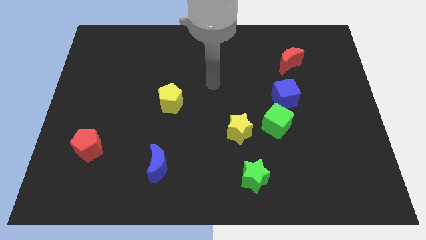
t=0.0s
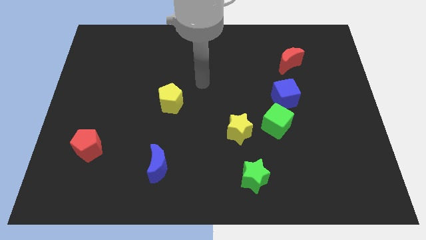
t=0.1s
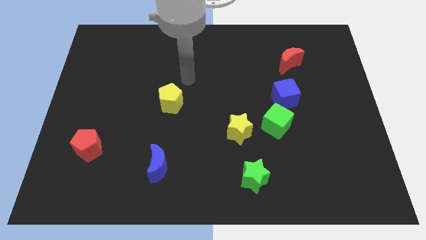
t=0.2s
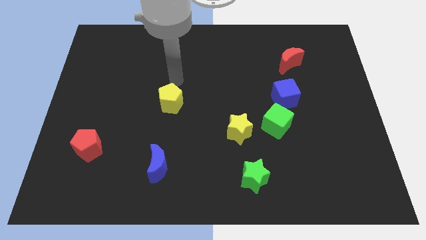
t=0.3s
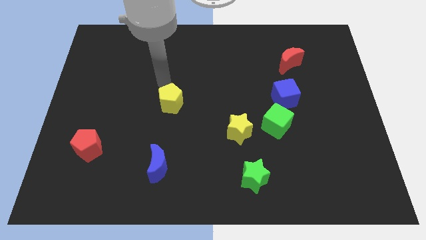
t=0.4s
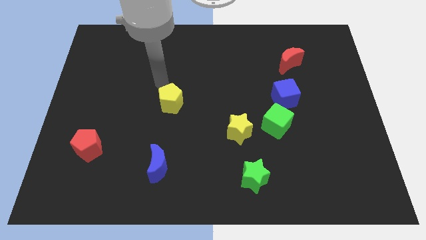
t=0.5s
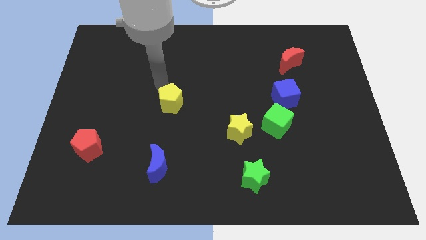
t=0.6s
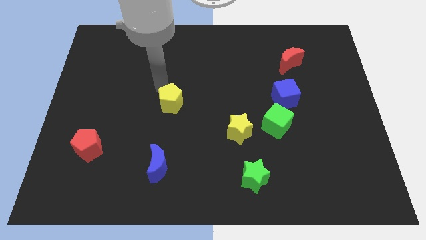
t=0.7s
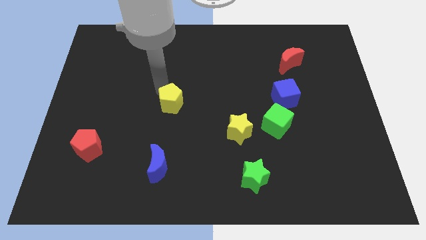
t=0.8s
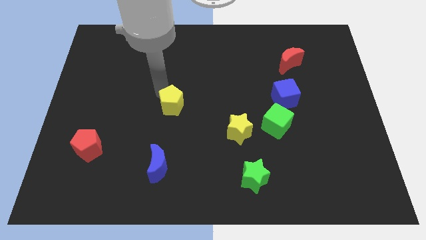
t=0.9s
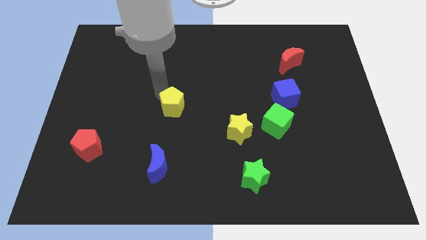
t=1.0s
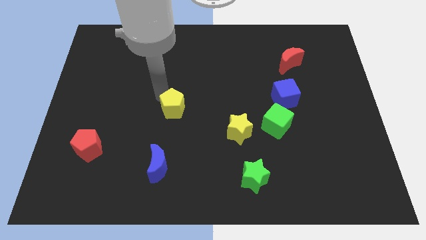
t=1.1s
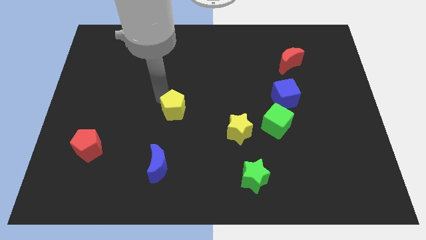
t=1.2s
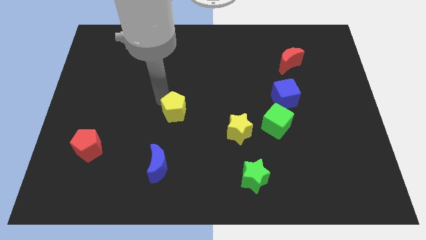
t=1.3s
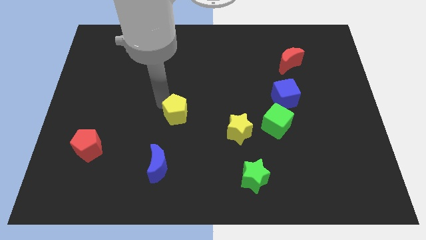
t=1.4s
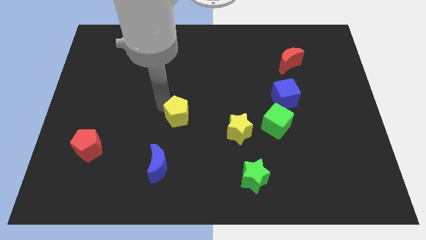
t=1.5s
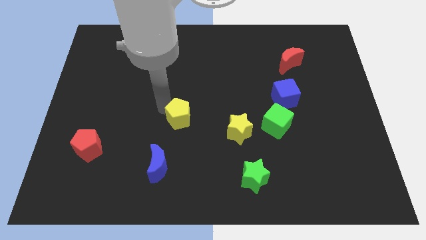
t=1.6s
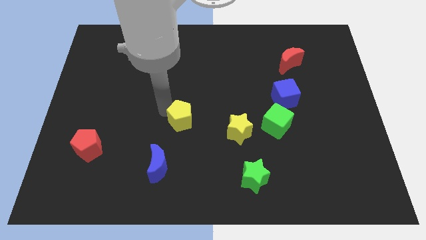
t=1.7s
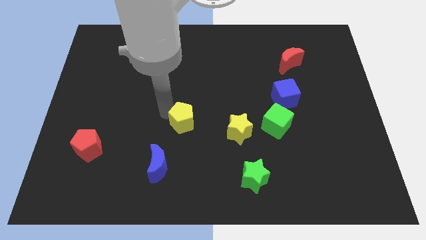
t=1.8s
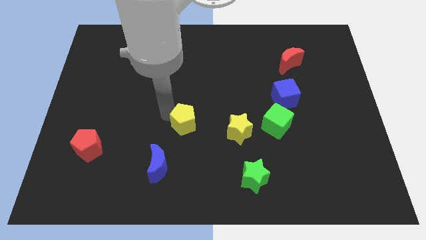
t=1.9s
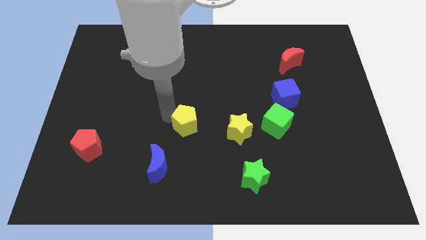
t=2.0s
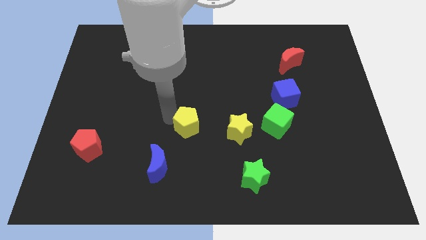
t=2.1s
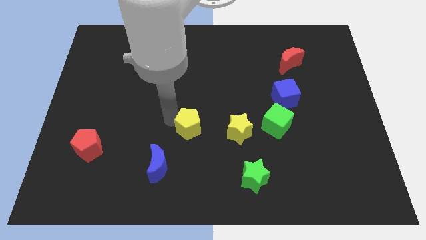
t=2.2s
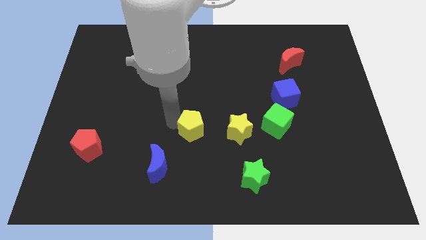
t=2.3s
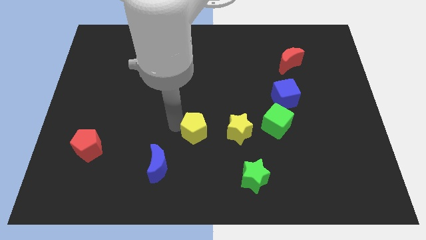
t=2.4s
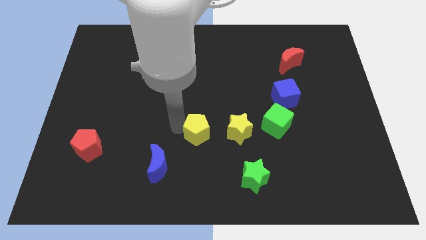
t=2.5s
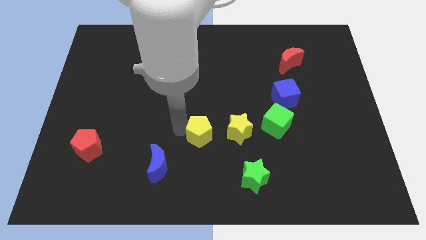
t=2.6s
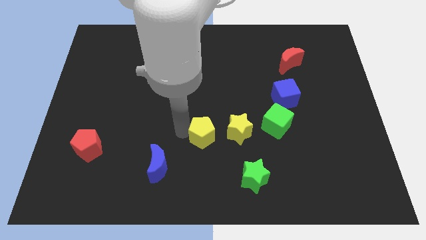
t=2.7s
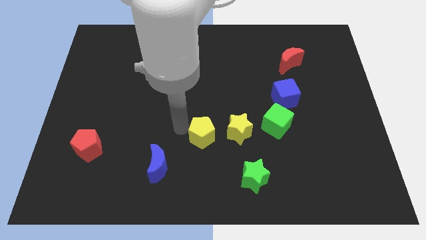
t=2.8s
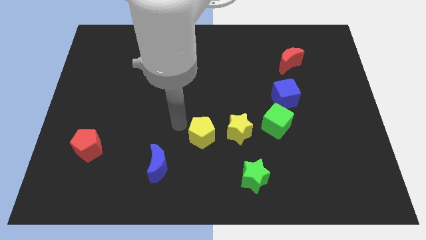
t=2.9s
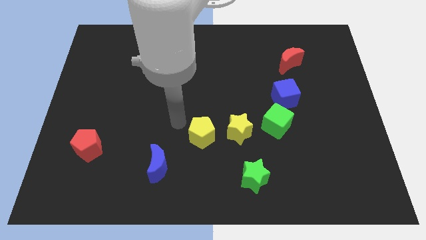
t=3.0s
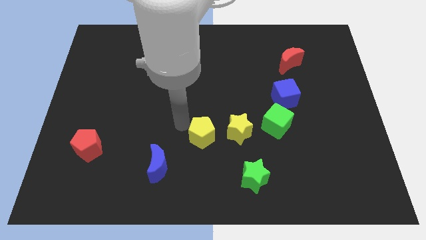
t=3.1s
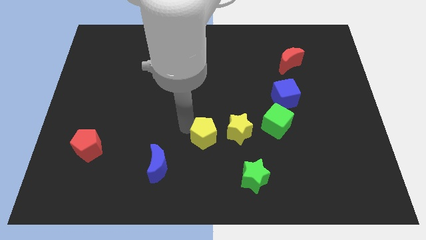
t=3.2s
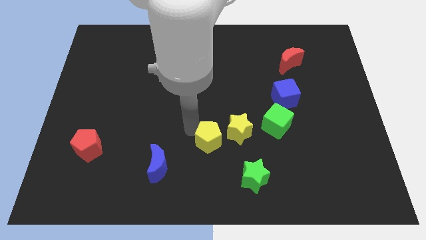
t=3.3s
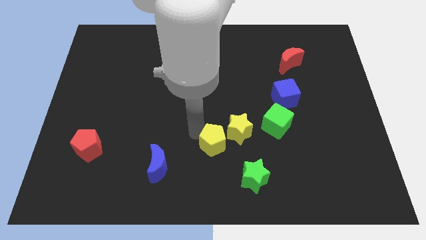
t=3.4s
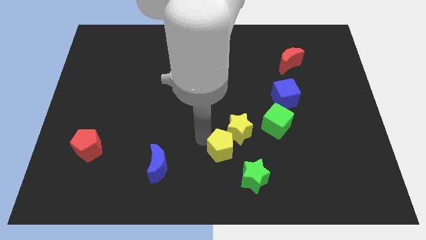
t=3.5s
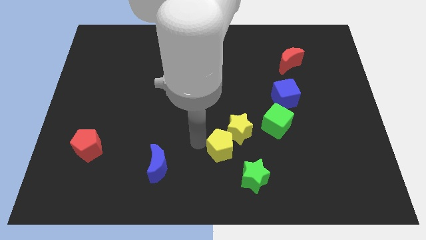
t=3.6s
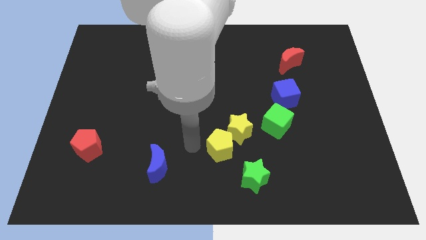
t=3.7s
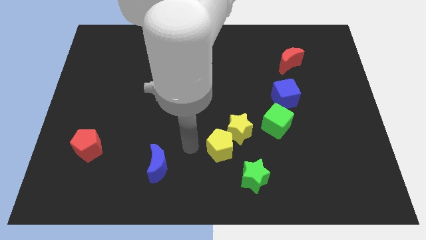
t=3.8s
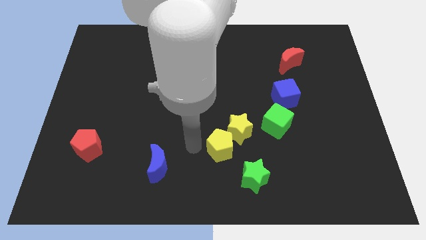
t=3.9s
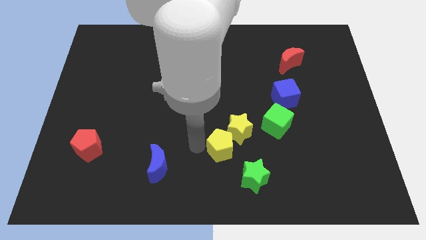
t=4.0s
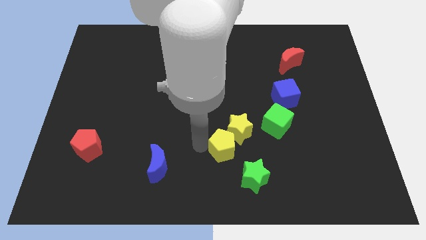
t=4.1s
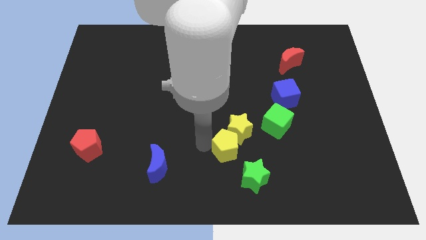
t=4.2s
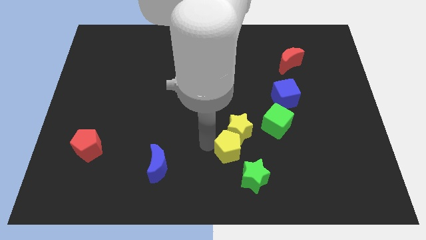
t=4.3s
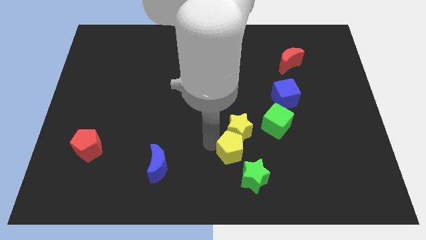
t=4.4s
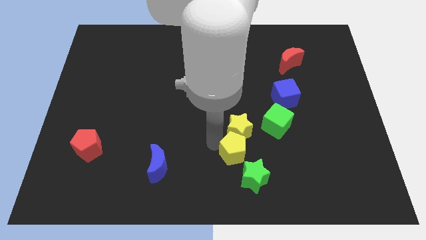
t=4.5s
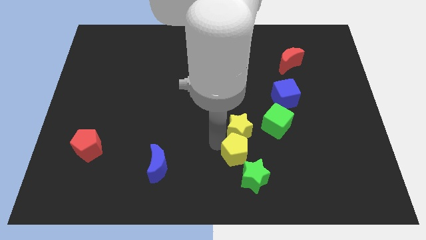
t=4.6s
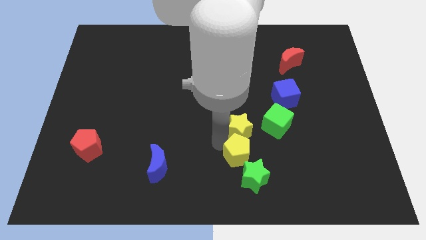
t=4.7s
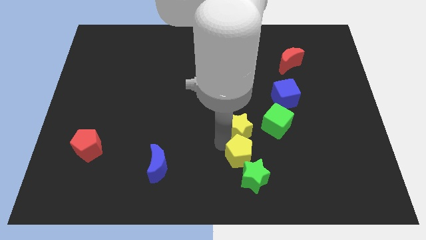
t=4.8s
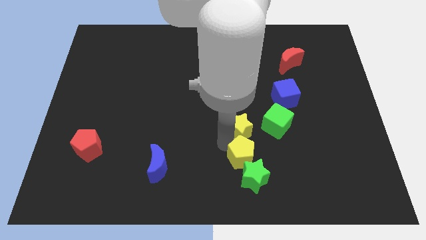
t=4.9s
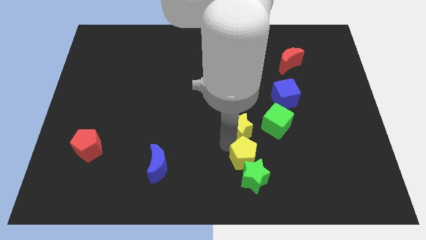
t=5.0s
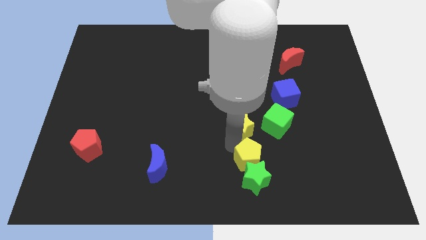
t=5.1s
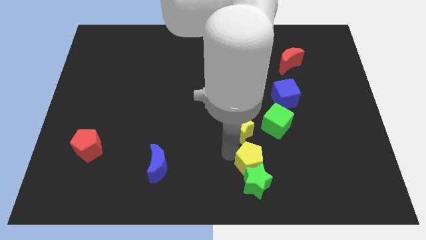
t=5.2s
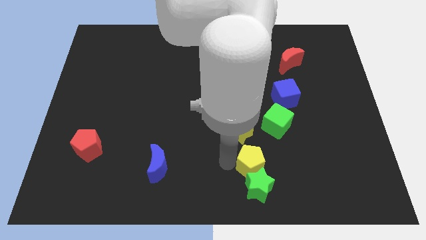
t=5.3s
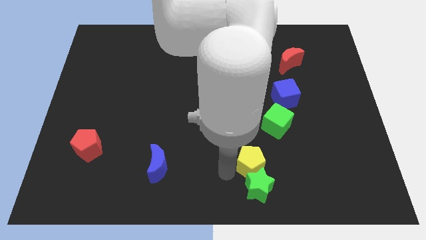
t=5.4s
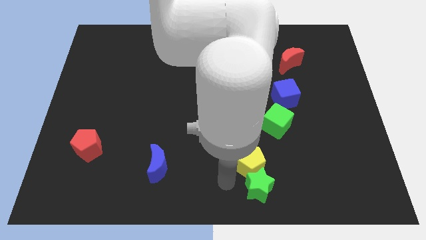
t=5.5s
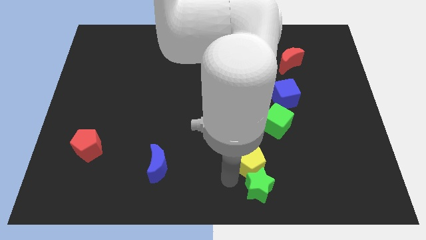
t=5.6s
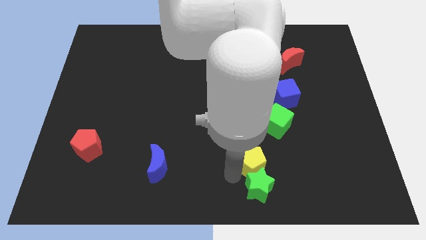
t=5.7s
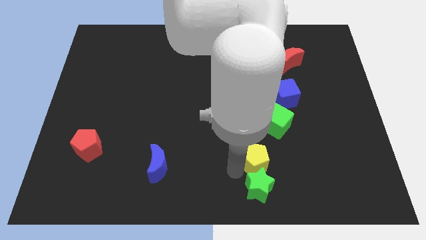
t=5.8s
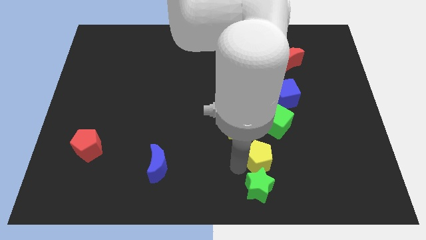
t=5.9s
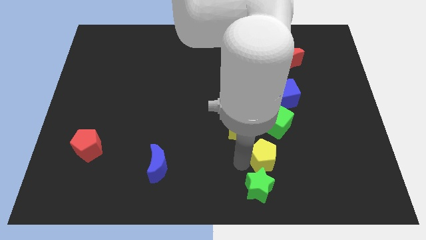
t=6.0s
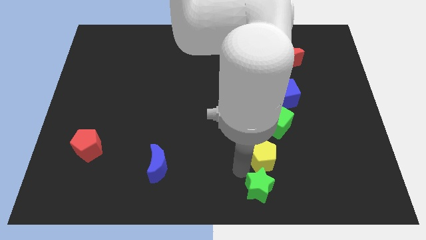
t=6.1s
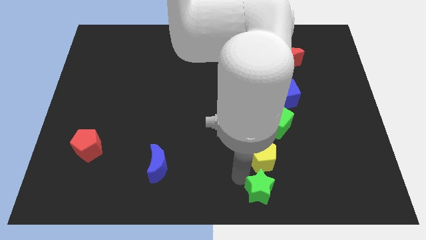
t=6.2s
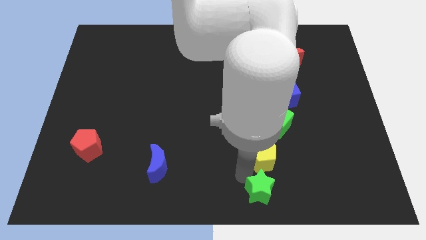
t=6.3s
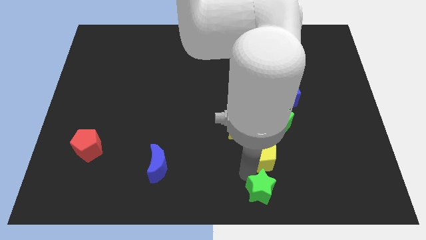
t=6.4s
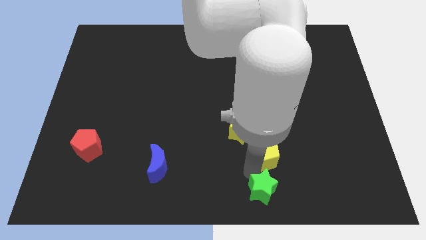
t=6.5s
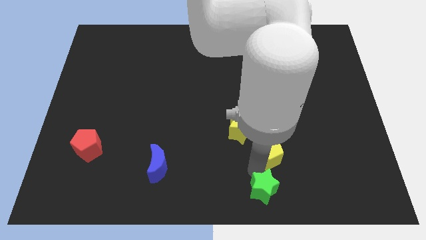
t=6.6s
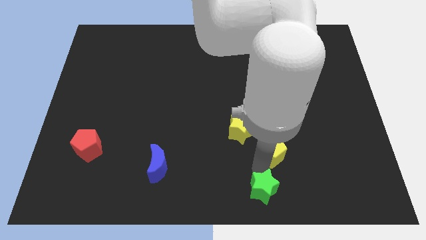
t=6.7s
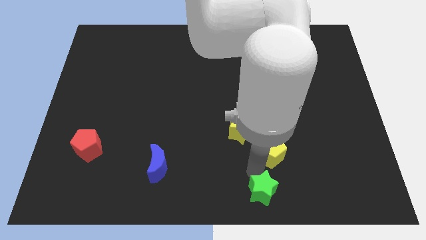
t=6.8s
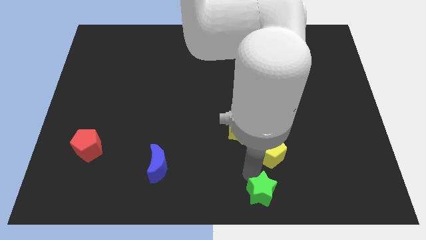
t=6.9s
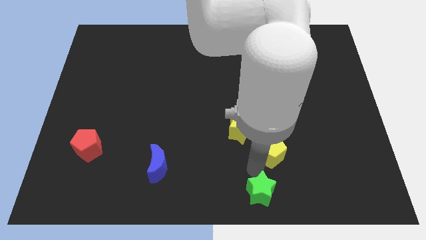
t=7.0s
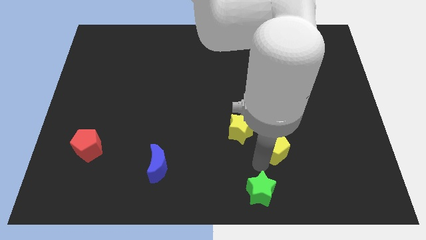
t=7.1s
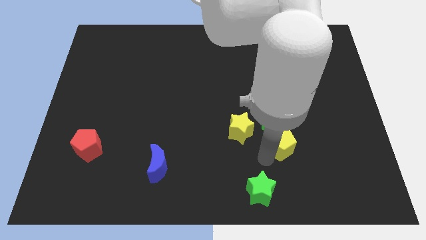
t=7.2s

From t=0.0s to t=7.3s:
move the yellow pentagon below the blue cube
